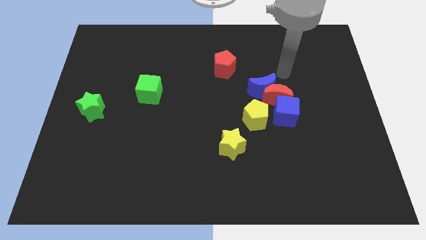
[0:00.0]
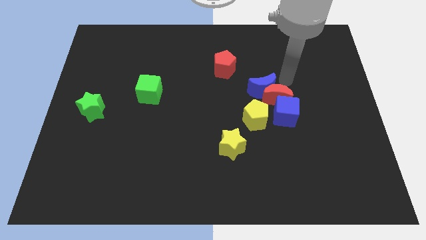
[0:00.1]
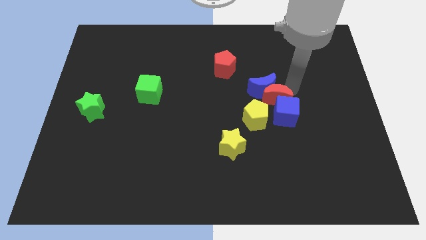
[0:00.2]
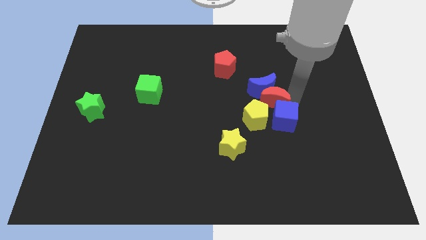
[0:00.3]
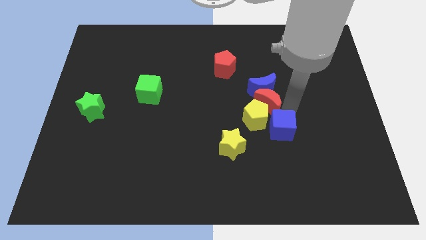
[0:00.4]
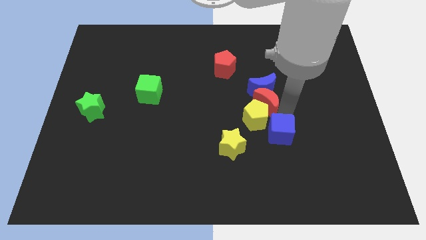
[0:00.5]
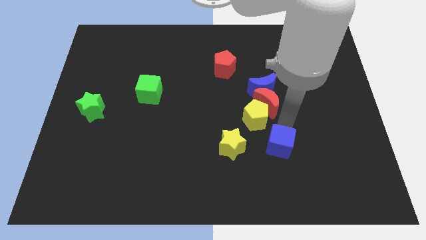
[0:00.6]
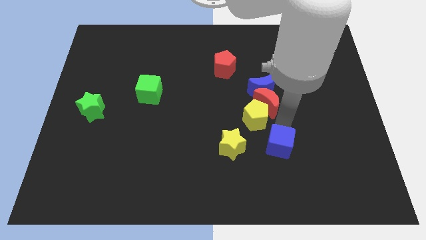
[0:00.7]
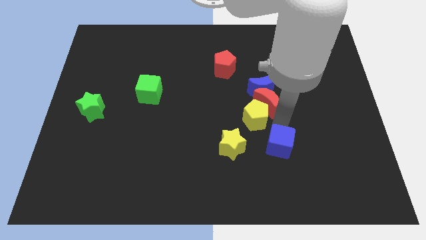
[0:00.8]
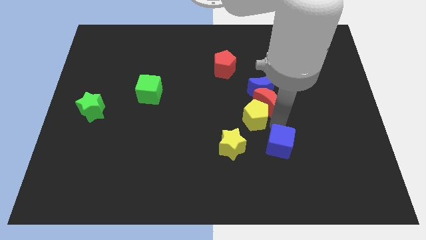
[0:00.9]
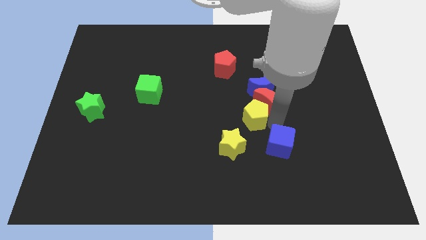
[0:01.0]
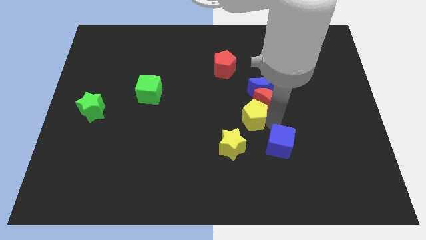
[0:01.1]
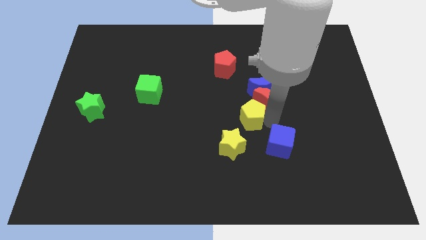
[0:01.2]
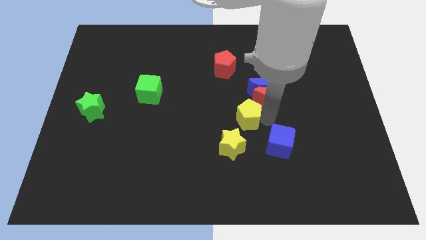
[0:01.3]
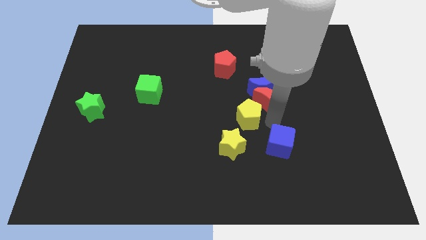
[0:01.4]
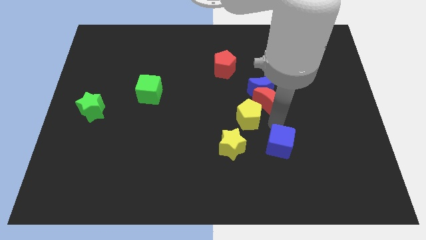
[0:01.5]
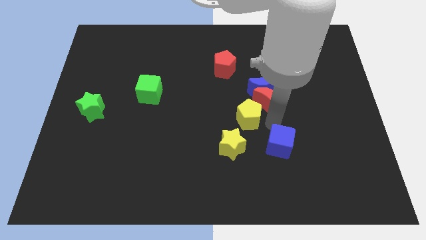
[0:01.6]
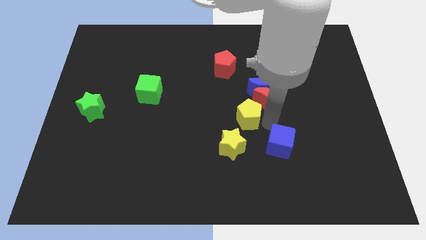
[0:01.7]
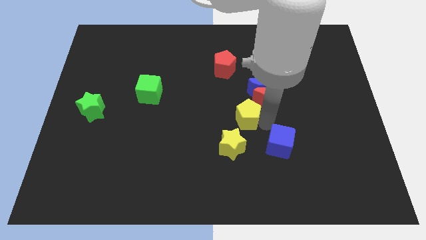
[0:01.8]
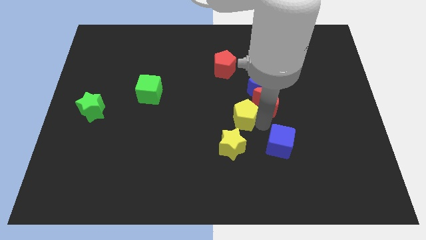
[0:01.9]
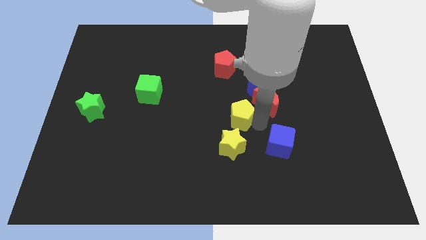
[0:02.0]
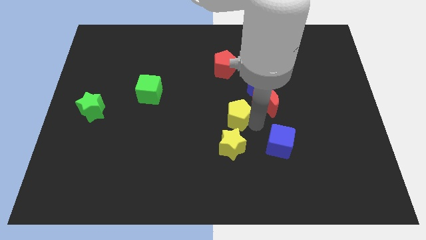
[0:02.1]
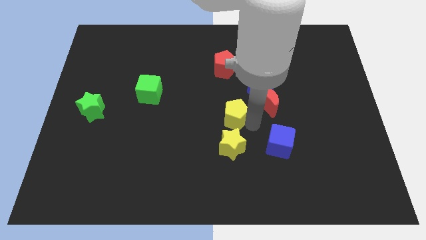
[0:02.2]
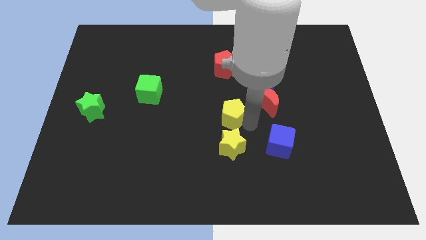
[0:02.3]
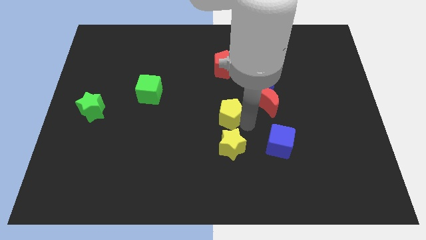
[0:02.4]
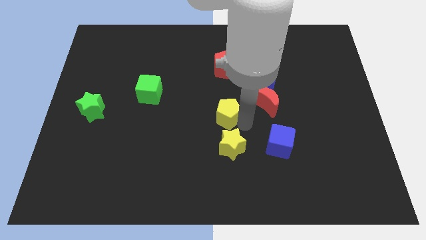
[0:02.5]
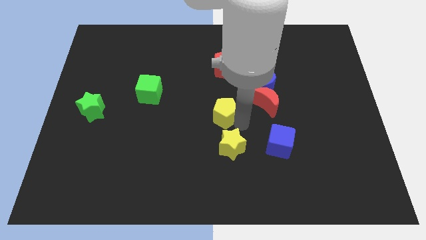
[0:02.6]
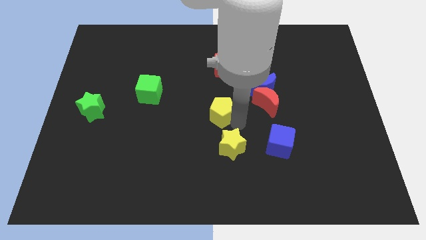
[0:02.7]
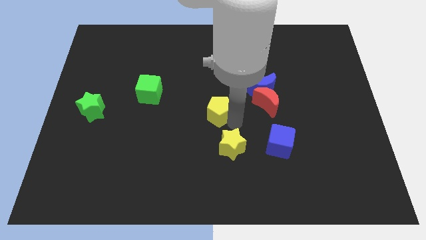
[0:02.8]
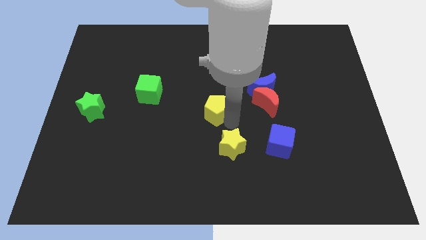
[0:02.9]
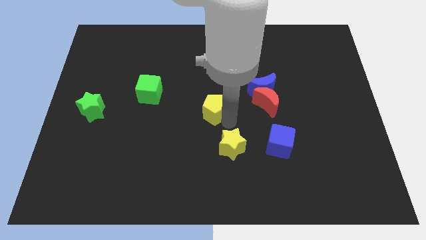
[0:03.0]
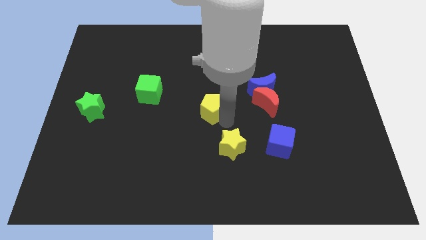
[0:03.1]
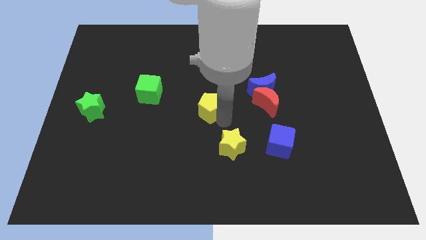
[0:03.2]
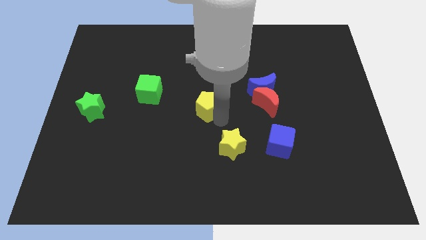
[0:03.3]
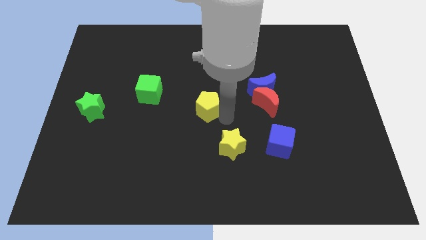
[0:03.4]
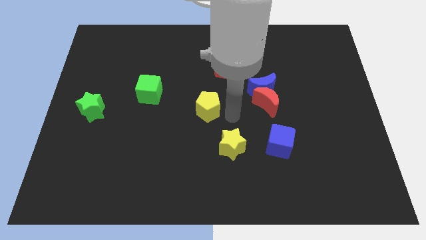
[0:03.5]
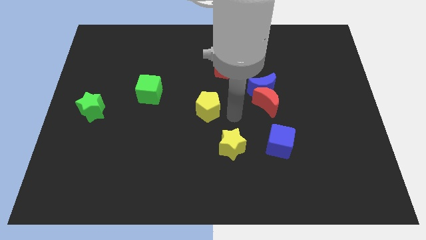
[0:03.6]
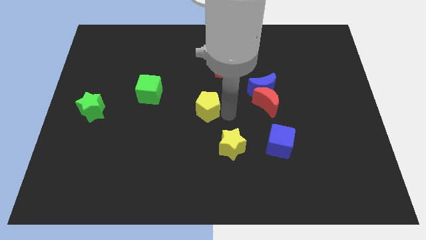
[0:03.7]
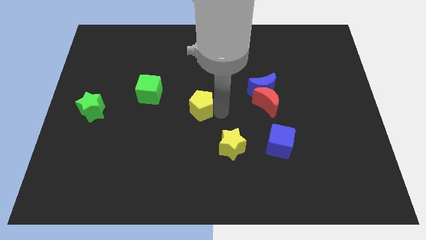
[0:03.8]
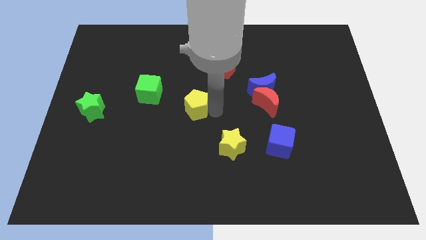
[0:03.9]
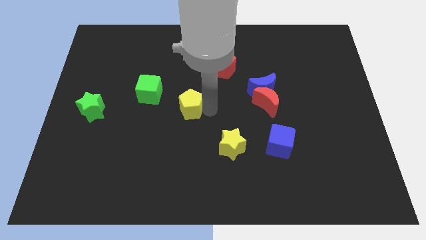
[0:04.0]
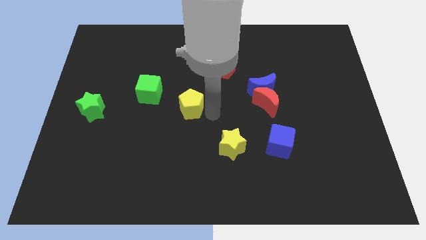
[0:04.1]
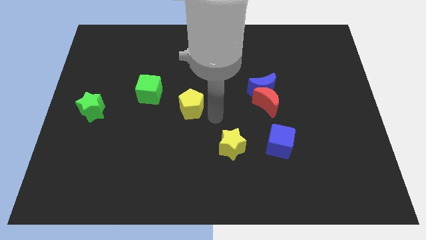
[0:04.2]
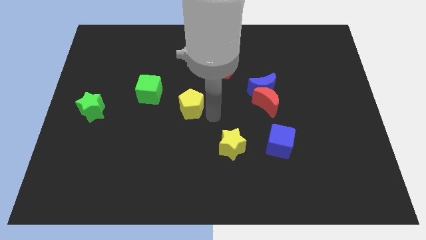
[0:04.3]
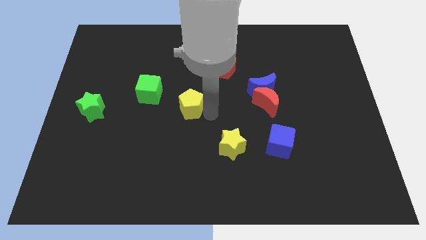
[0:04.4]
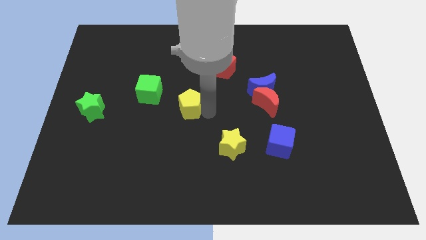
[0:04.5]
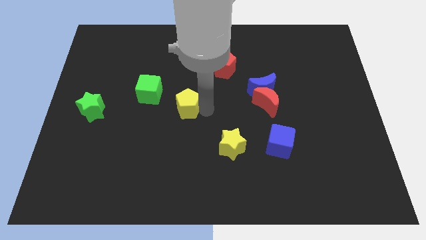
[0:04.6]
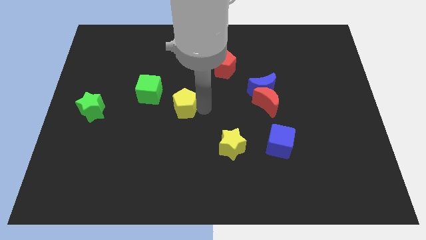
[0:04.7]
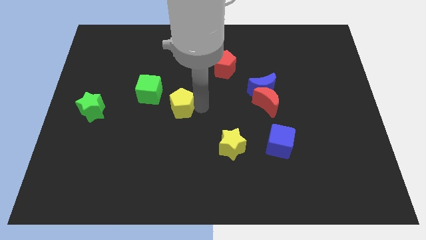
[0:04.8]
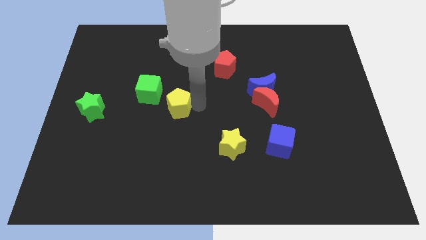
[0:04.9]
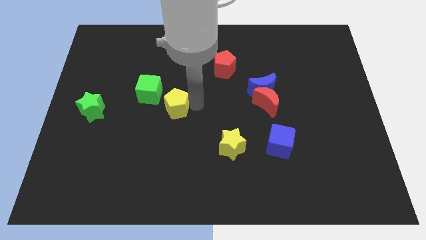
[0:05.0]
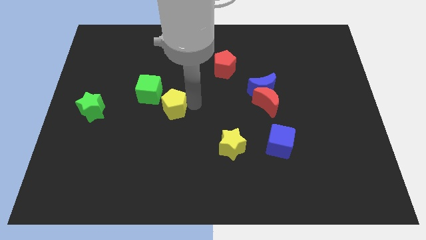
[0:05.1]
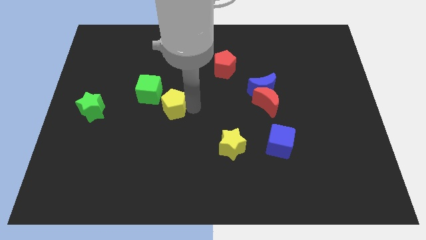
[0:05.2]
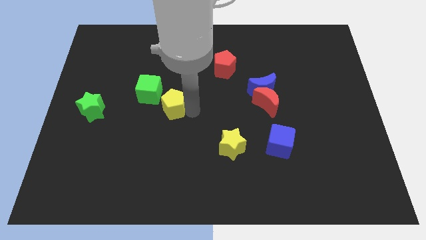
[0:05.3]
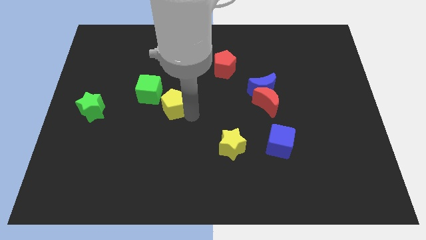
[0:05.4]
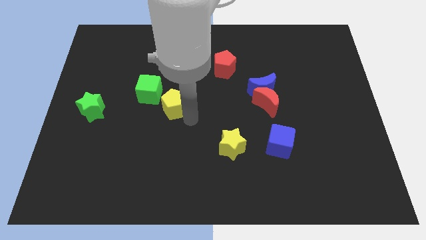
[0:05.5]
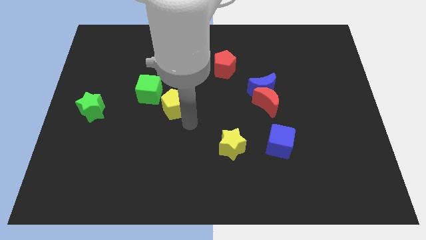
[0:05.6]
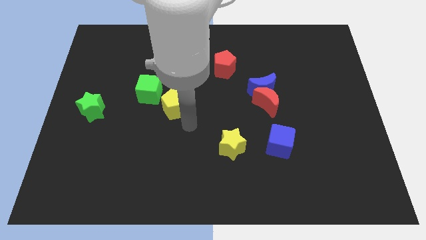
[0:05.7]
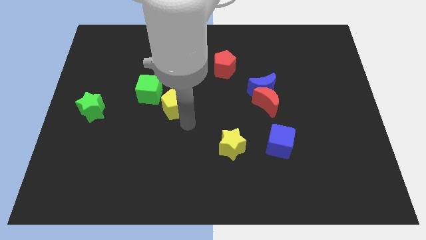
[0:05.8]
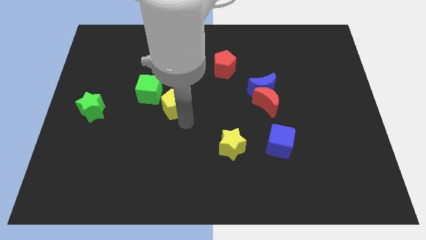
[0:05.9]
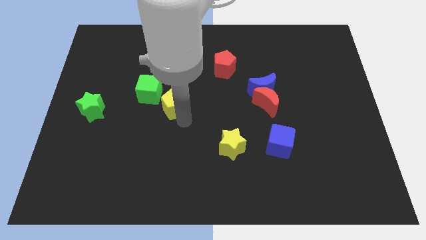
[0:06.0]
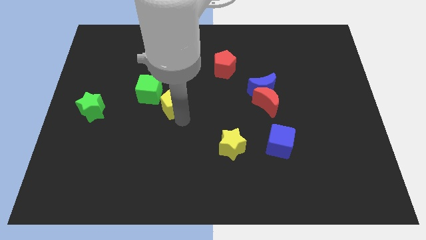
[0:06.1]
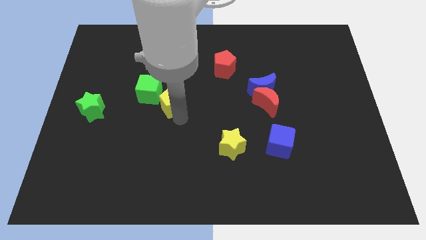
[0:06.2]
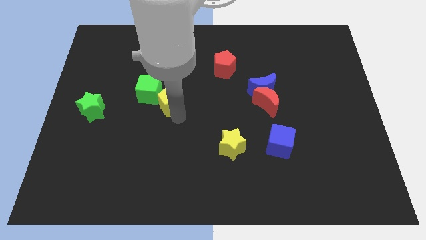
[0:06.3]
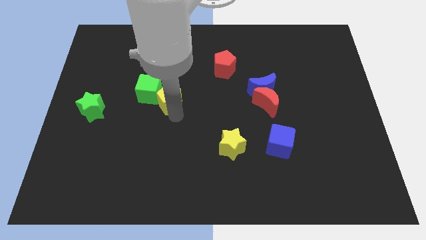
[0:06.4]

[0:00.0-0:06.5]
push the yellow pentagon to the green cube
